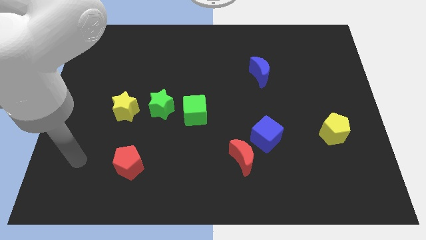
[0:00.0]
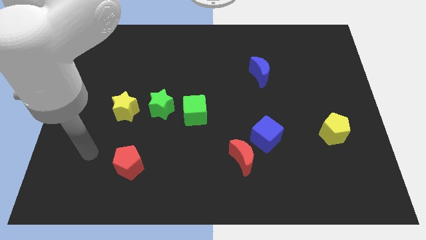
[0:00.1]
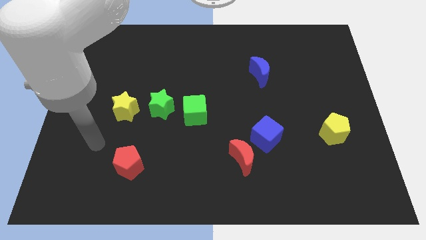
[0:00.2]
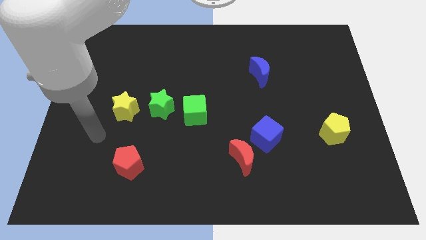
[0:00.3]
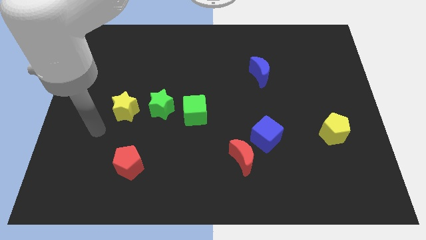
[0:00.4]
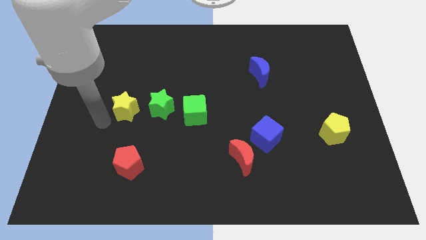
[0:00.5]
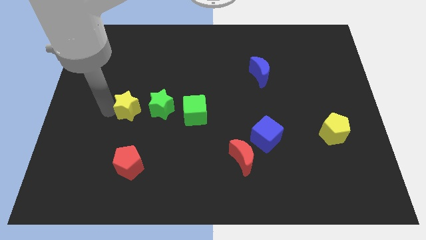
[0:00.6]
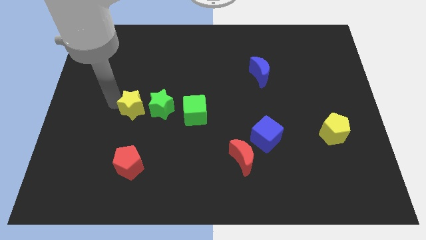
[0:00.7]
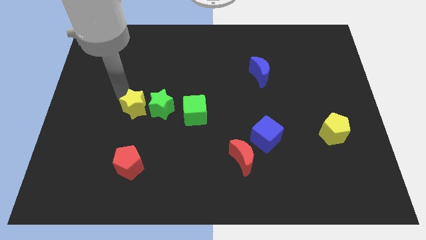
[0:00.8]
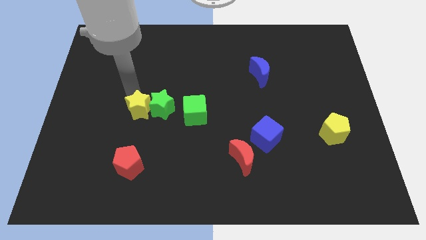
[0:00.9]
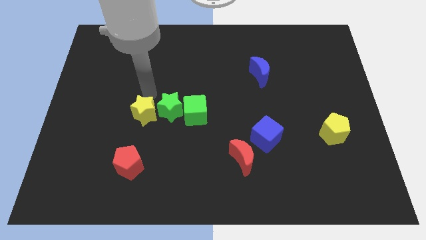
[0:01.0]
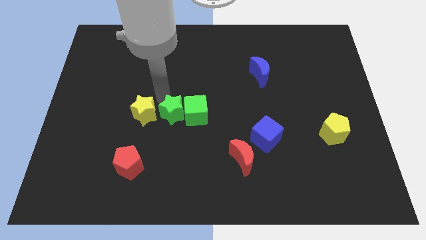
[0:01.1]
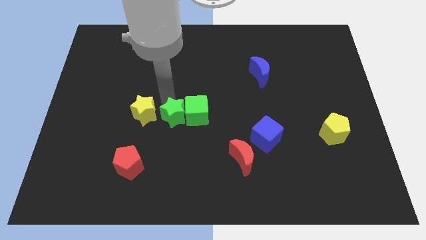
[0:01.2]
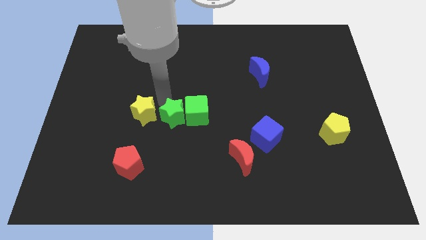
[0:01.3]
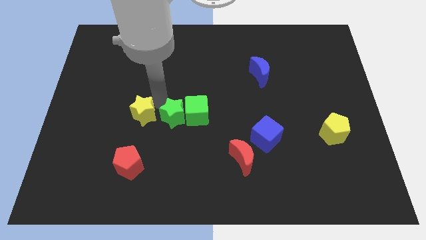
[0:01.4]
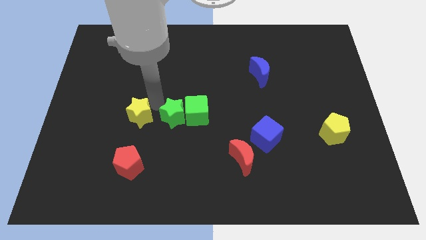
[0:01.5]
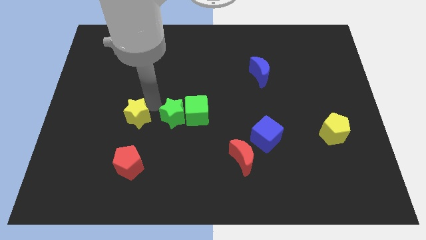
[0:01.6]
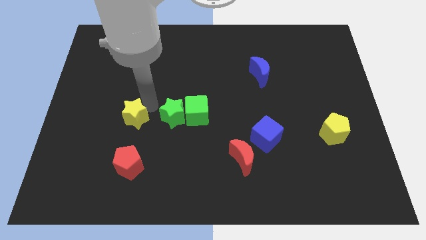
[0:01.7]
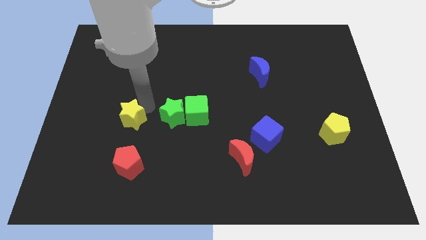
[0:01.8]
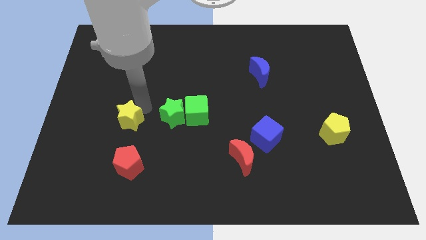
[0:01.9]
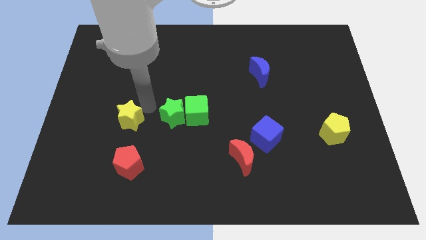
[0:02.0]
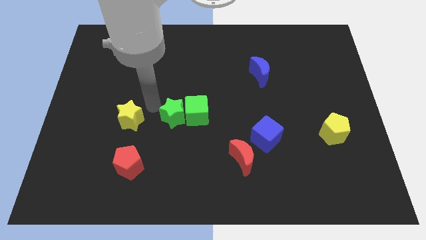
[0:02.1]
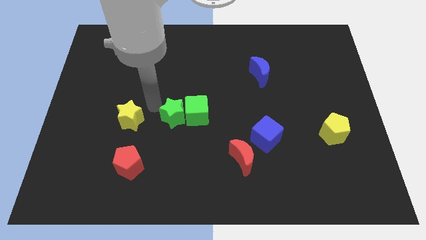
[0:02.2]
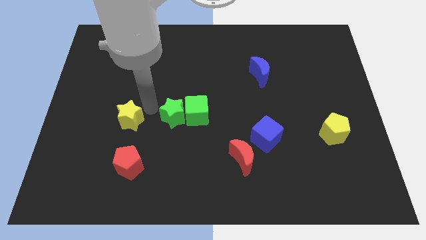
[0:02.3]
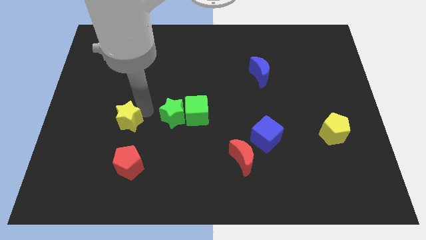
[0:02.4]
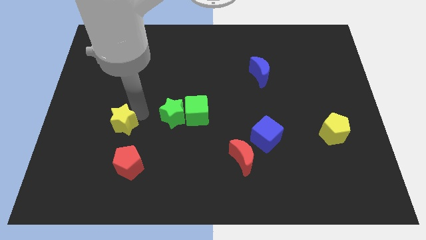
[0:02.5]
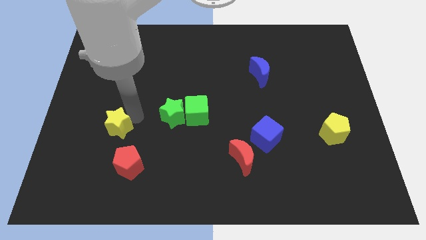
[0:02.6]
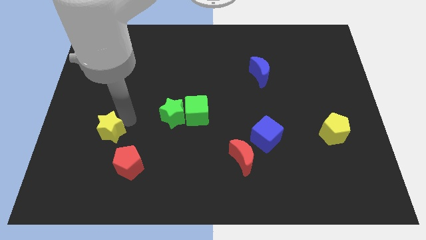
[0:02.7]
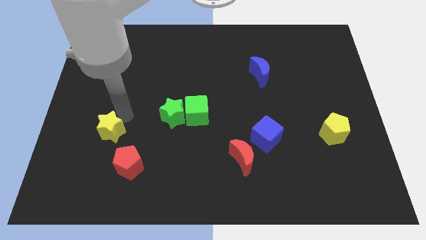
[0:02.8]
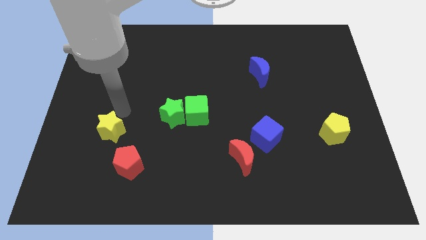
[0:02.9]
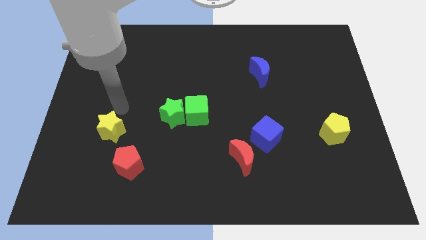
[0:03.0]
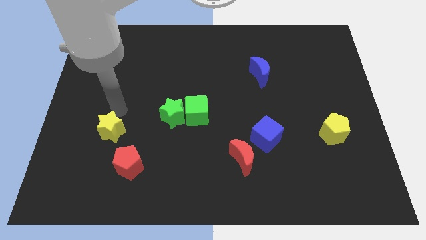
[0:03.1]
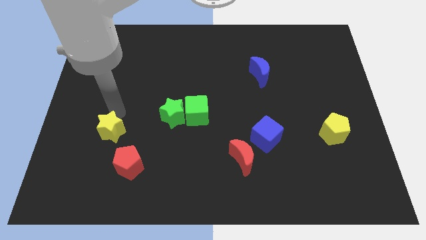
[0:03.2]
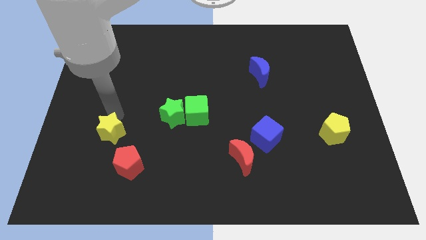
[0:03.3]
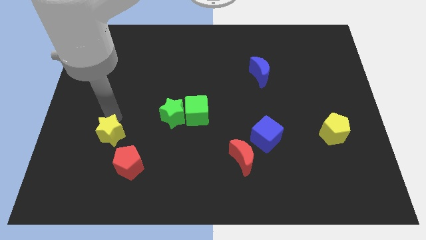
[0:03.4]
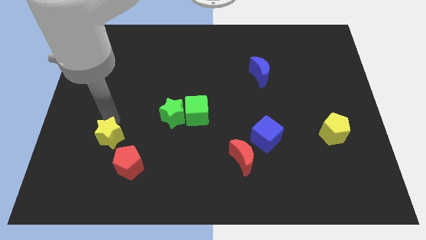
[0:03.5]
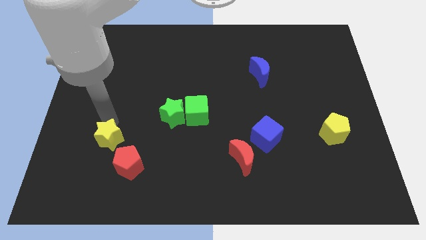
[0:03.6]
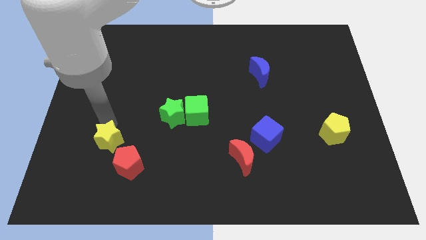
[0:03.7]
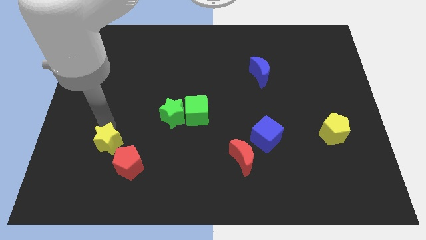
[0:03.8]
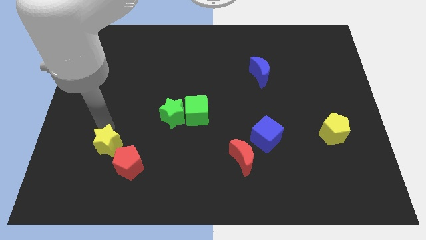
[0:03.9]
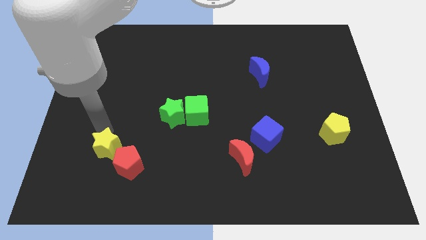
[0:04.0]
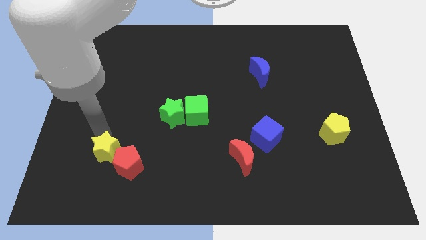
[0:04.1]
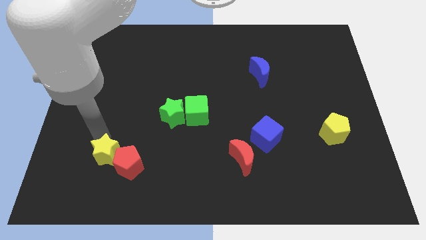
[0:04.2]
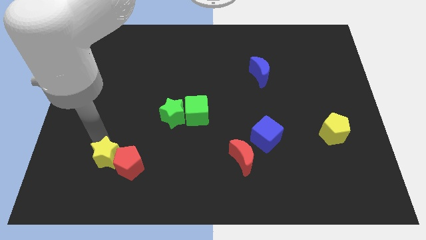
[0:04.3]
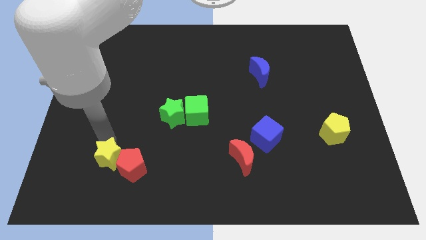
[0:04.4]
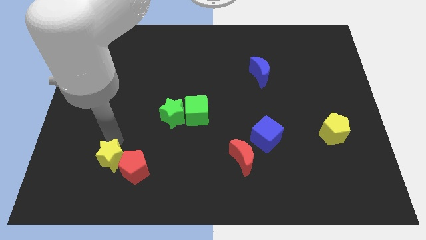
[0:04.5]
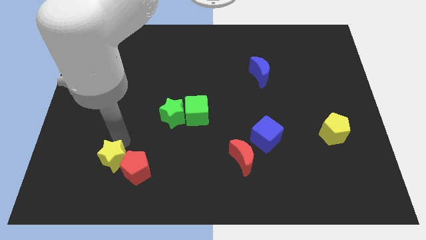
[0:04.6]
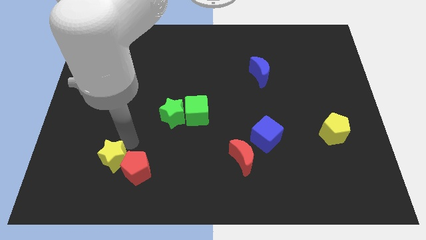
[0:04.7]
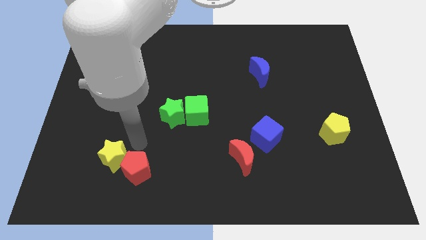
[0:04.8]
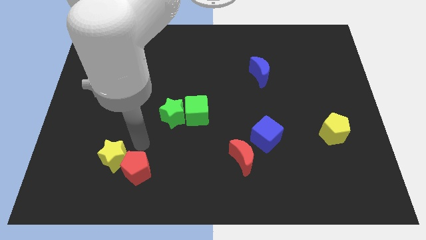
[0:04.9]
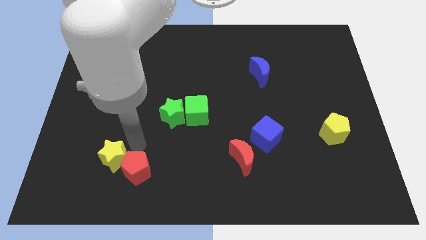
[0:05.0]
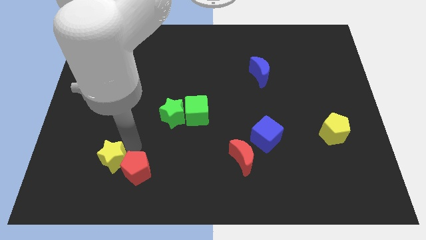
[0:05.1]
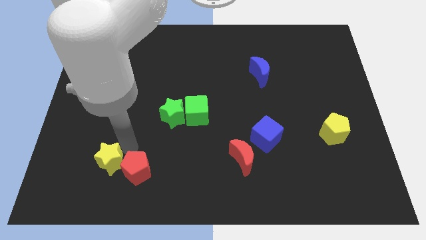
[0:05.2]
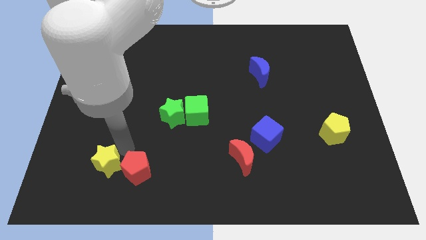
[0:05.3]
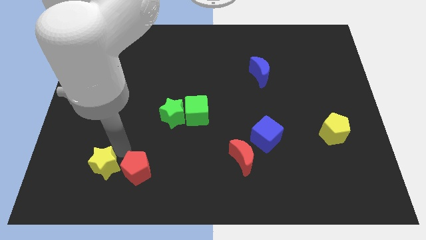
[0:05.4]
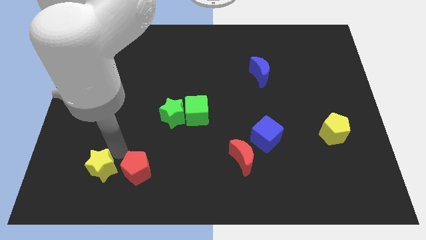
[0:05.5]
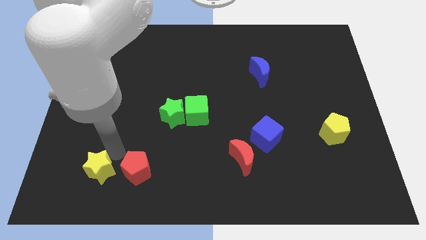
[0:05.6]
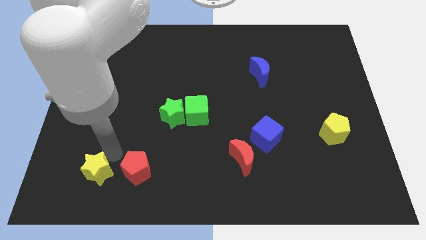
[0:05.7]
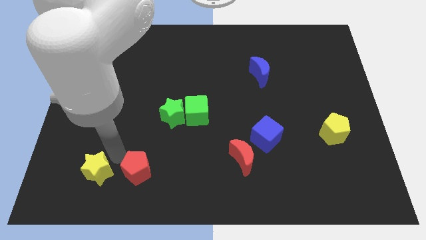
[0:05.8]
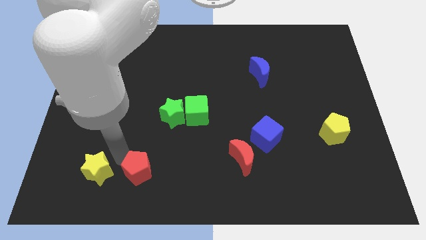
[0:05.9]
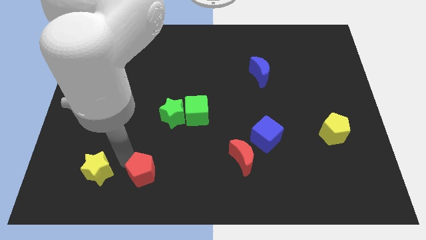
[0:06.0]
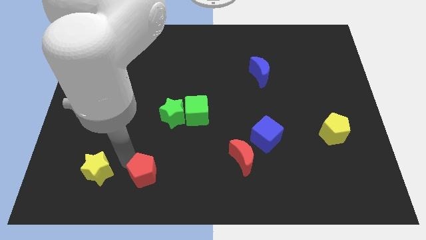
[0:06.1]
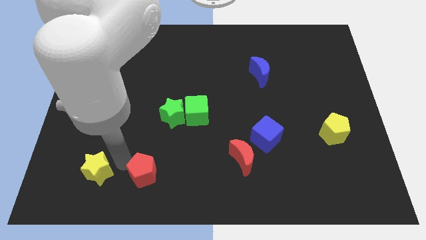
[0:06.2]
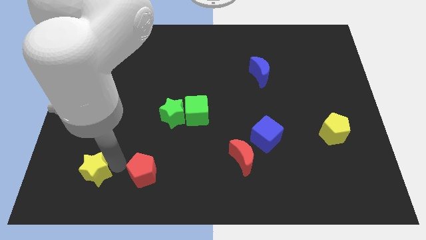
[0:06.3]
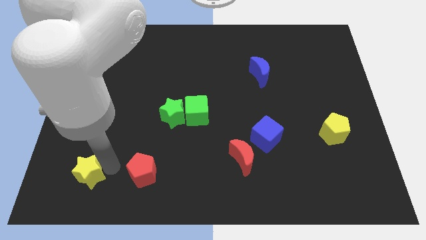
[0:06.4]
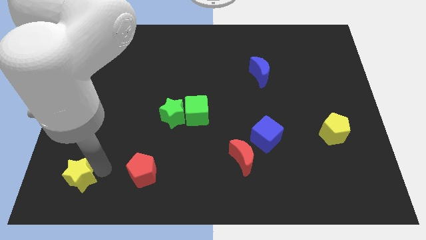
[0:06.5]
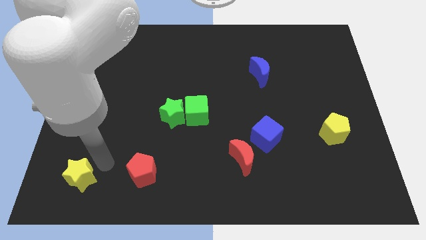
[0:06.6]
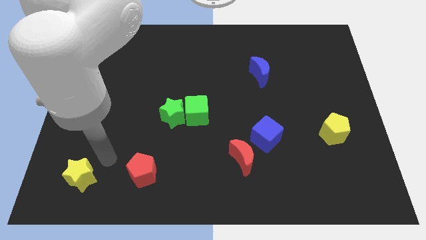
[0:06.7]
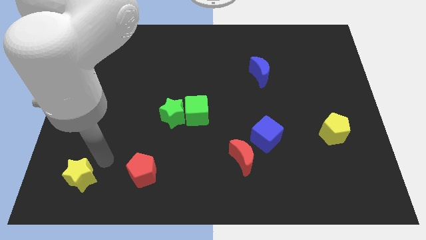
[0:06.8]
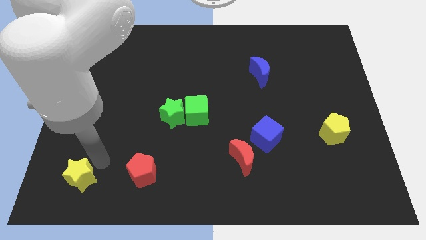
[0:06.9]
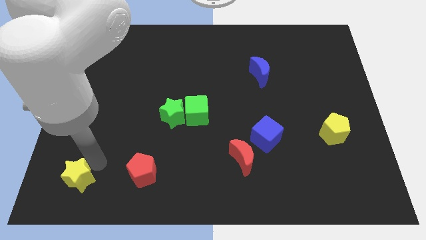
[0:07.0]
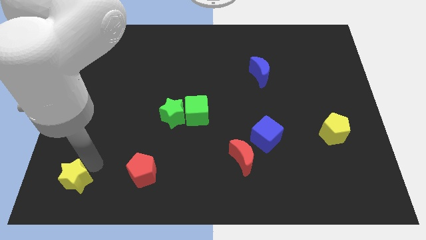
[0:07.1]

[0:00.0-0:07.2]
push the yellow star to the bottom left
